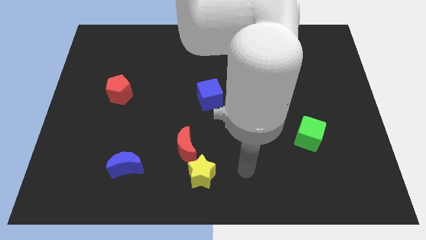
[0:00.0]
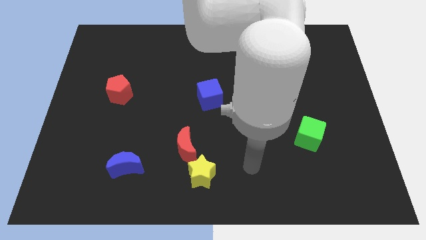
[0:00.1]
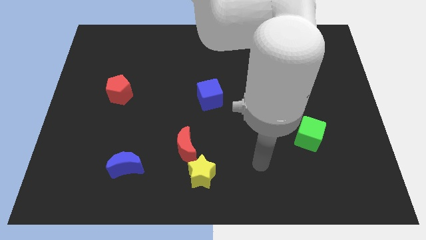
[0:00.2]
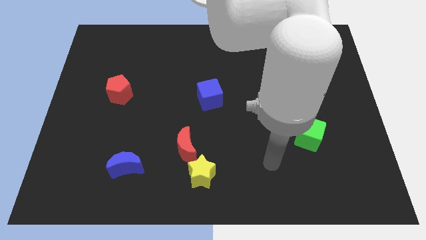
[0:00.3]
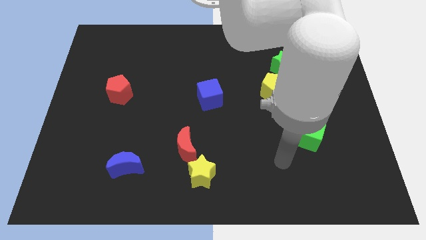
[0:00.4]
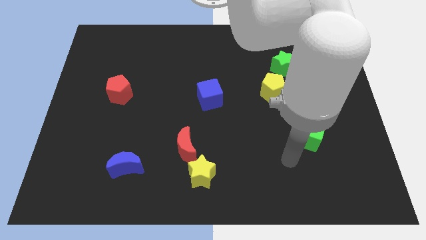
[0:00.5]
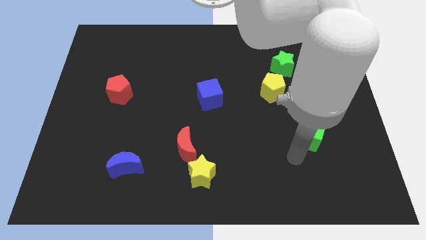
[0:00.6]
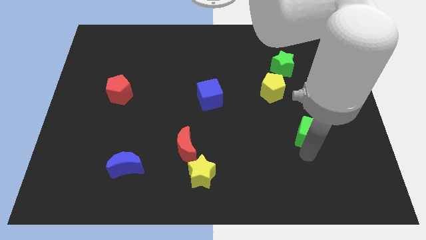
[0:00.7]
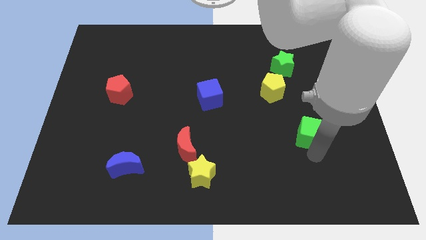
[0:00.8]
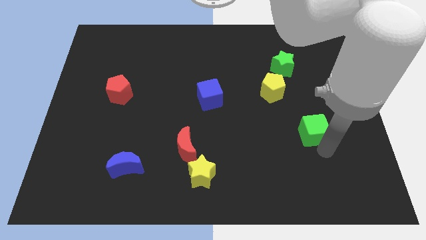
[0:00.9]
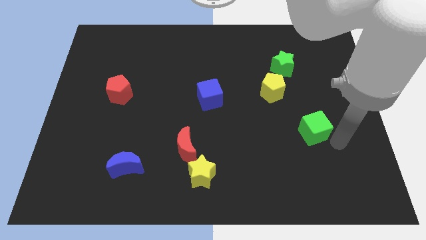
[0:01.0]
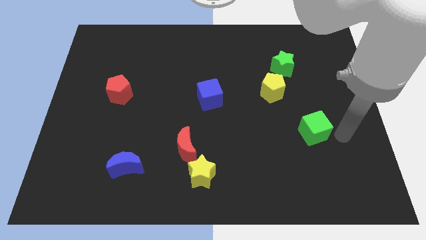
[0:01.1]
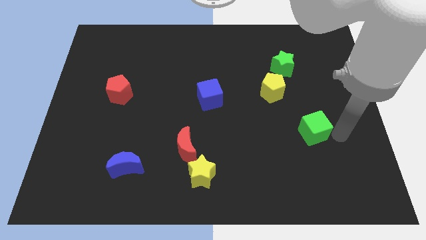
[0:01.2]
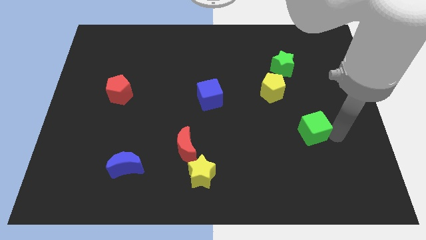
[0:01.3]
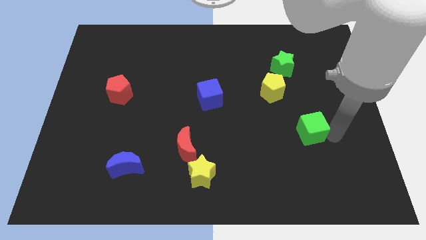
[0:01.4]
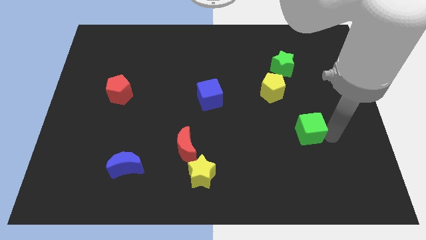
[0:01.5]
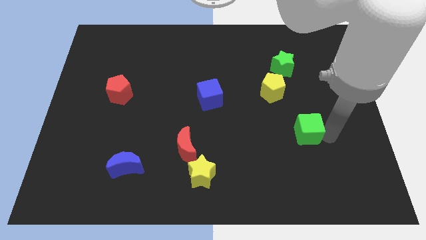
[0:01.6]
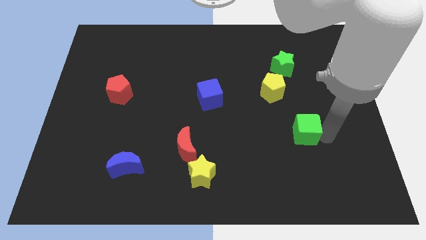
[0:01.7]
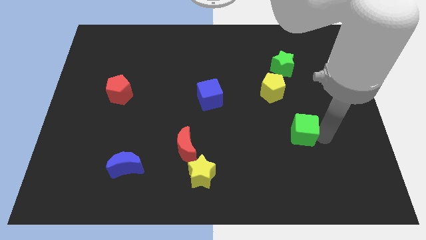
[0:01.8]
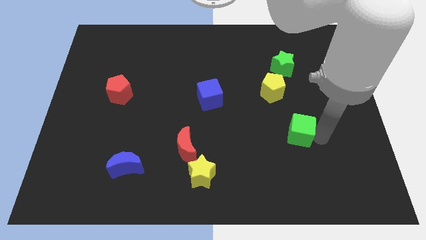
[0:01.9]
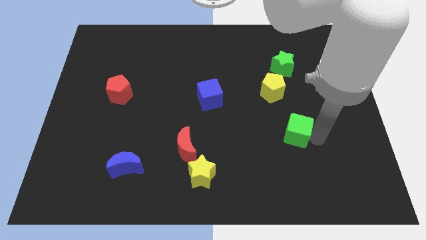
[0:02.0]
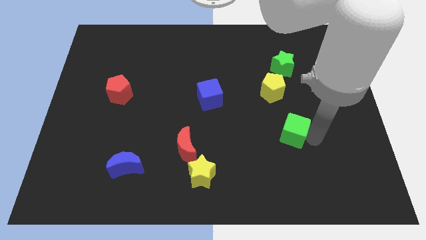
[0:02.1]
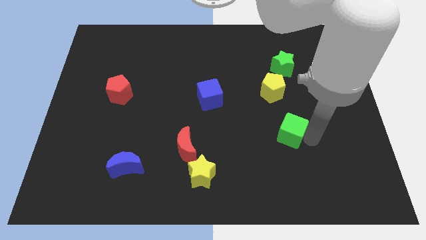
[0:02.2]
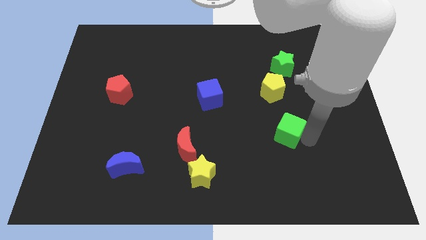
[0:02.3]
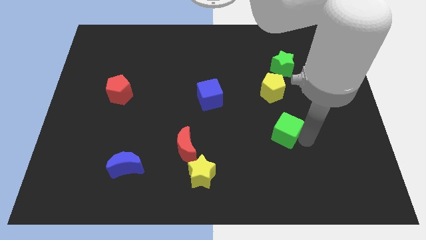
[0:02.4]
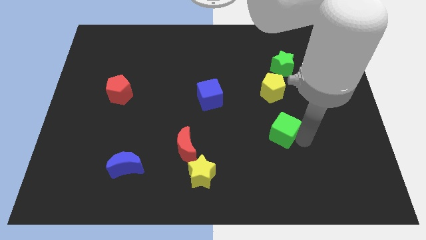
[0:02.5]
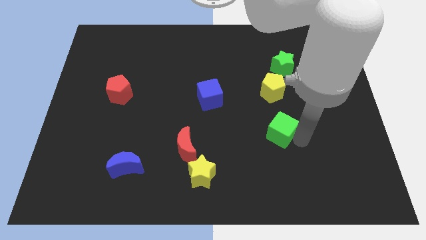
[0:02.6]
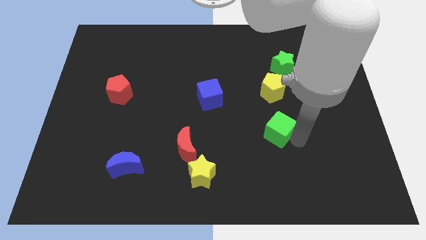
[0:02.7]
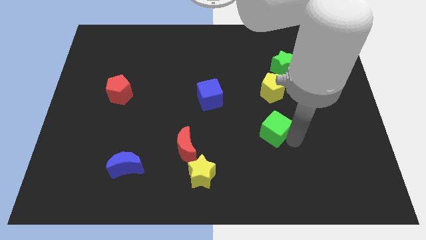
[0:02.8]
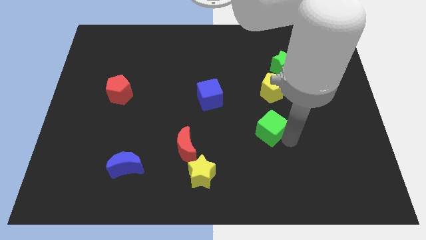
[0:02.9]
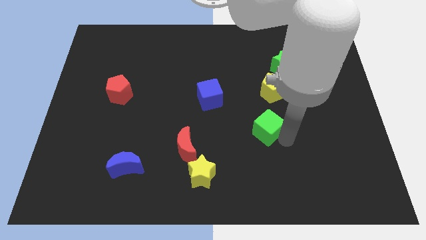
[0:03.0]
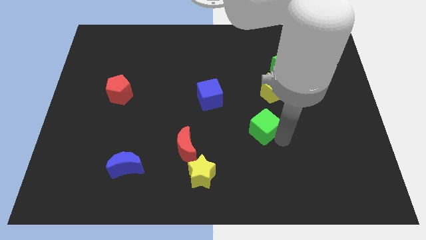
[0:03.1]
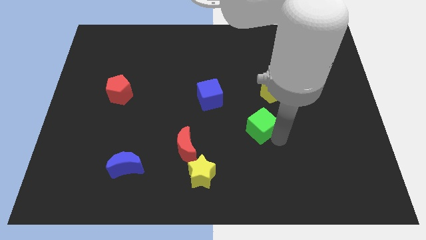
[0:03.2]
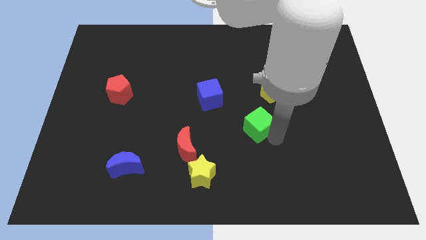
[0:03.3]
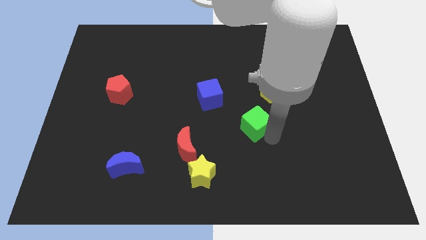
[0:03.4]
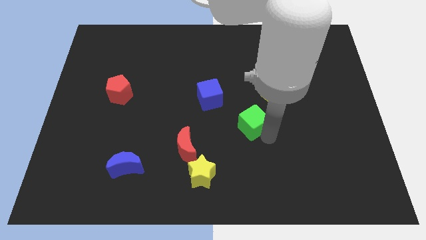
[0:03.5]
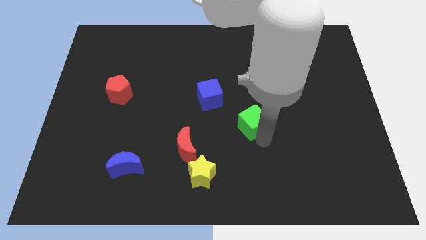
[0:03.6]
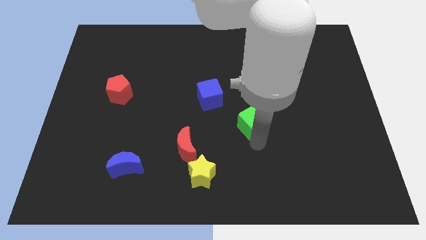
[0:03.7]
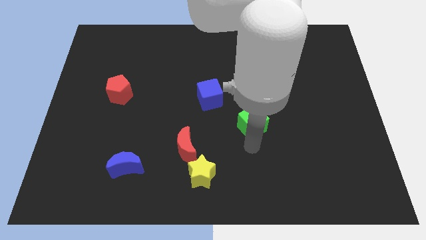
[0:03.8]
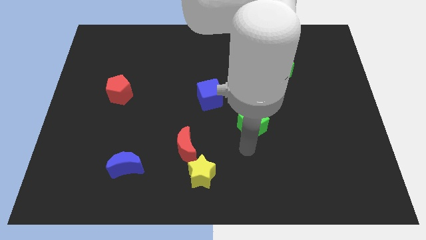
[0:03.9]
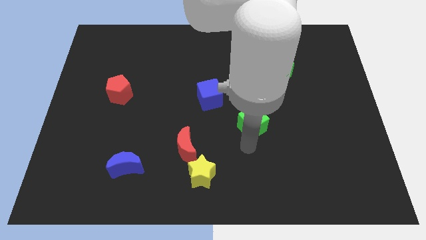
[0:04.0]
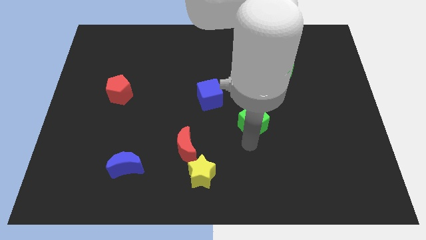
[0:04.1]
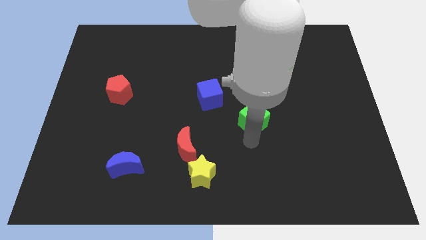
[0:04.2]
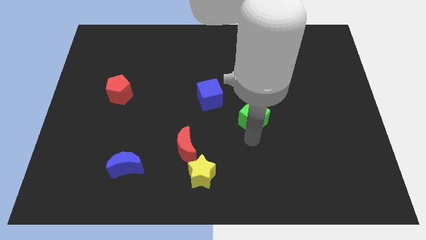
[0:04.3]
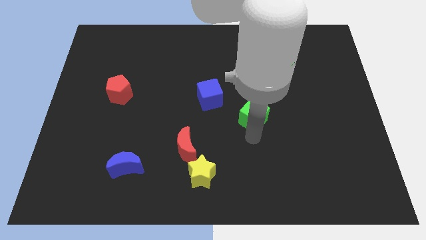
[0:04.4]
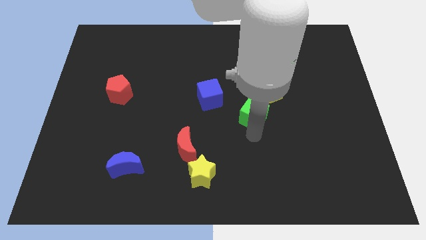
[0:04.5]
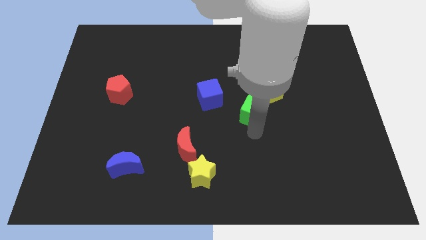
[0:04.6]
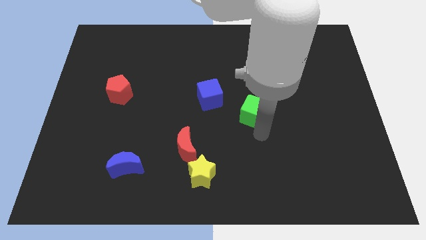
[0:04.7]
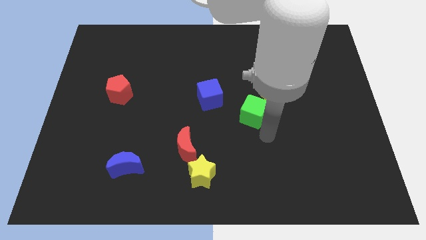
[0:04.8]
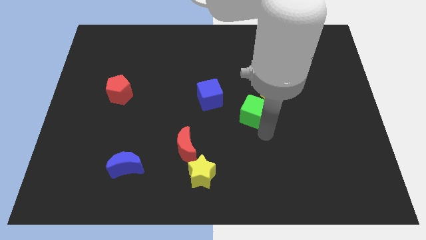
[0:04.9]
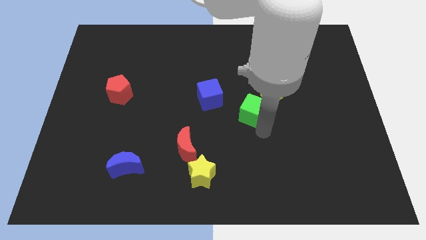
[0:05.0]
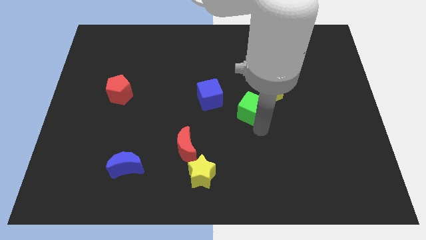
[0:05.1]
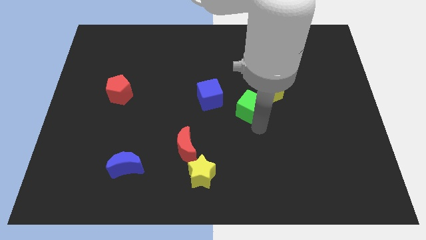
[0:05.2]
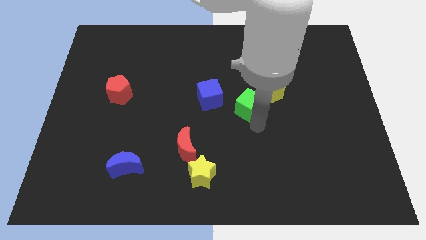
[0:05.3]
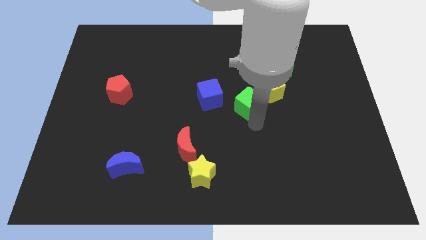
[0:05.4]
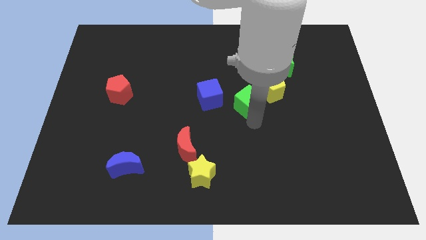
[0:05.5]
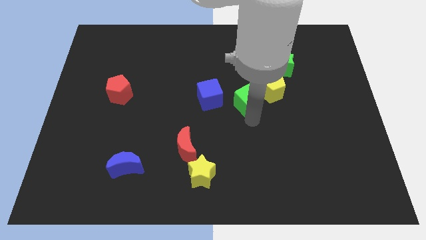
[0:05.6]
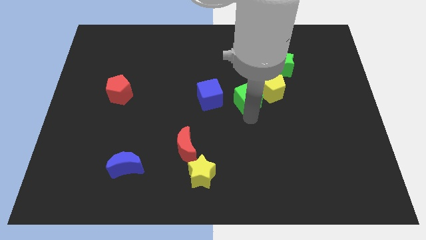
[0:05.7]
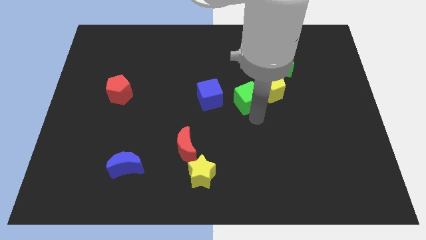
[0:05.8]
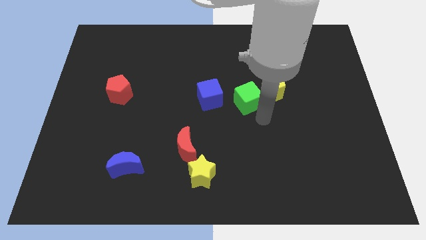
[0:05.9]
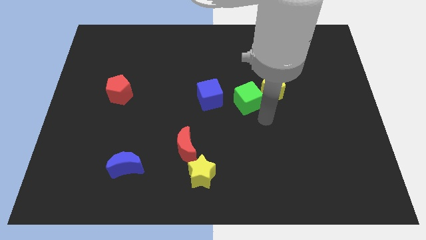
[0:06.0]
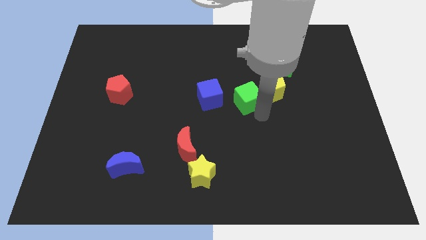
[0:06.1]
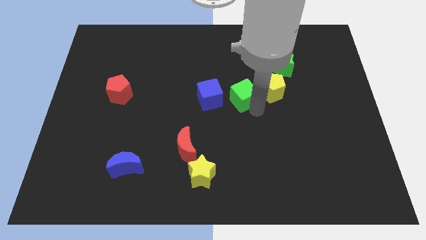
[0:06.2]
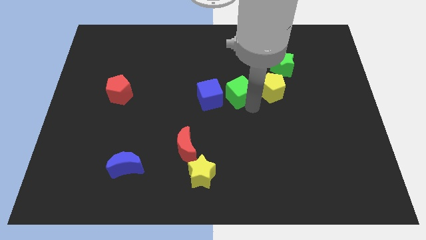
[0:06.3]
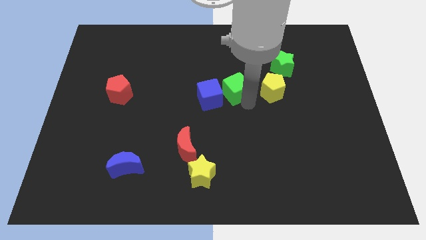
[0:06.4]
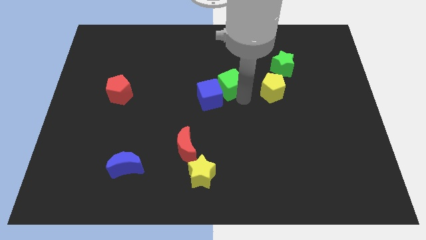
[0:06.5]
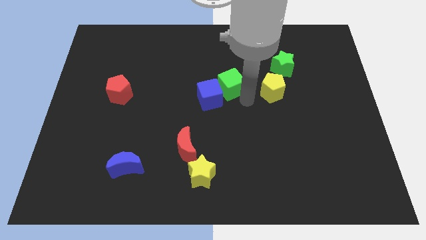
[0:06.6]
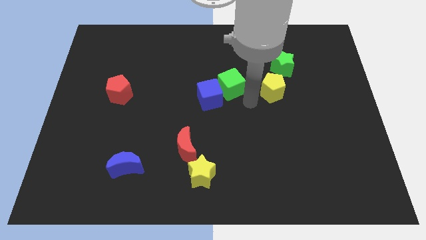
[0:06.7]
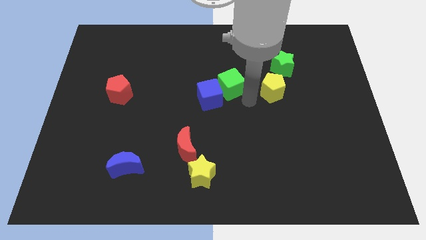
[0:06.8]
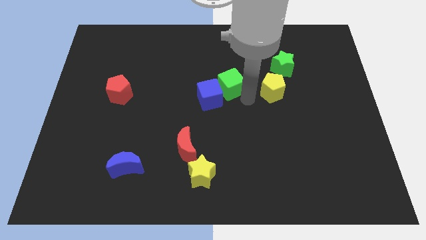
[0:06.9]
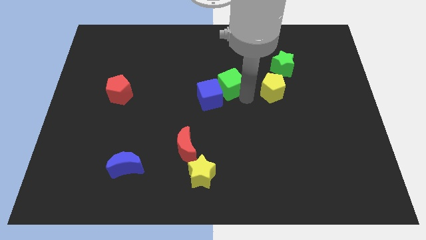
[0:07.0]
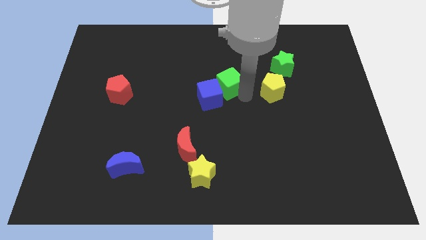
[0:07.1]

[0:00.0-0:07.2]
push the green cube to the top side of the blue cube
